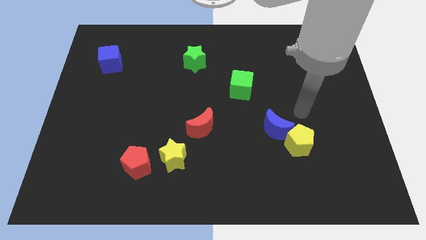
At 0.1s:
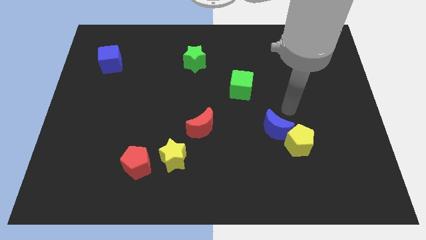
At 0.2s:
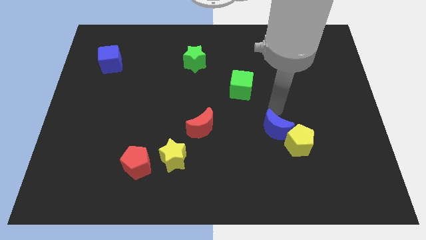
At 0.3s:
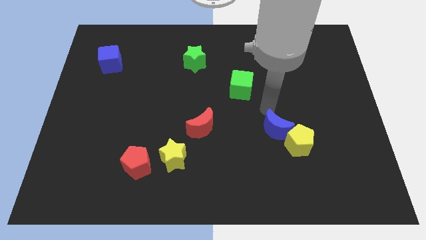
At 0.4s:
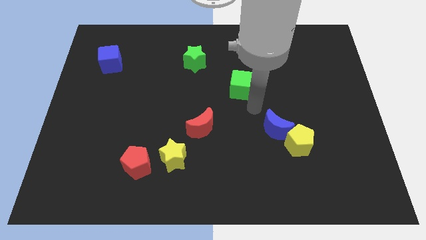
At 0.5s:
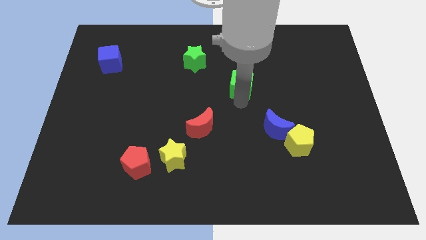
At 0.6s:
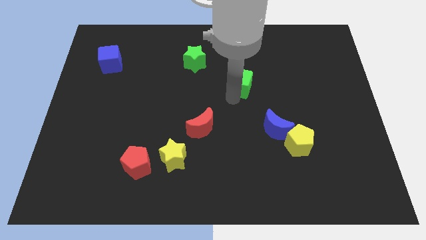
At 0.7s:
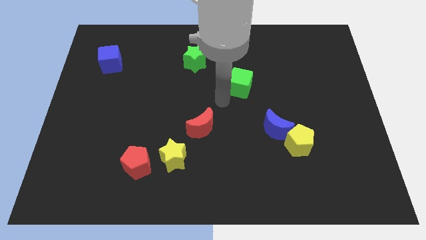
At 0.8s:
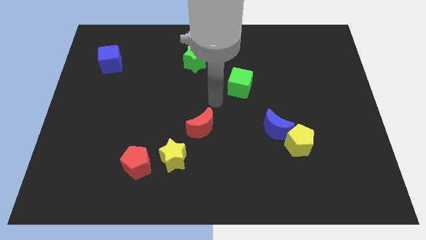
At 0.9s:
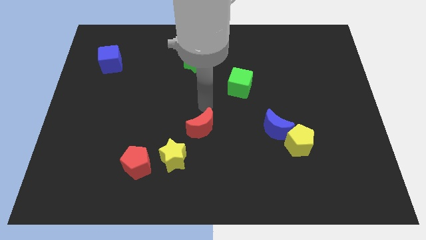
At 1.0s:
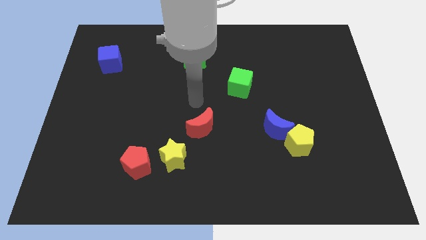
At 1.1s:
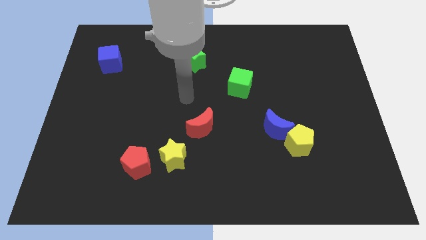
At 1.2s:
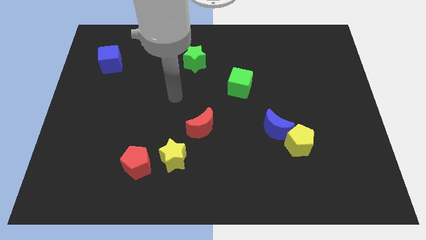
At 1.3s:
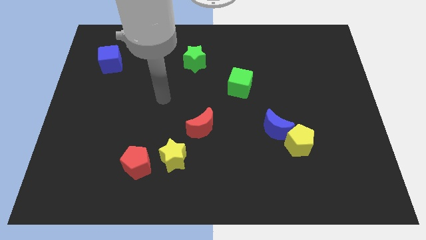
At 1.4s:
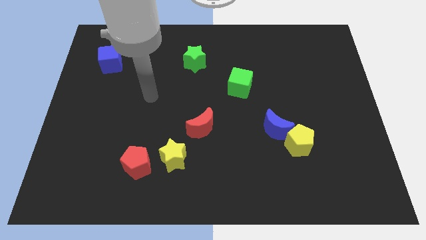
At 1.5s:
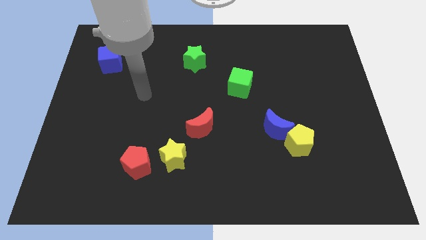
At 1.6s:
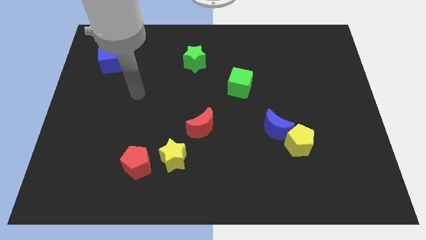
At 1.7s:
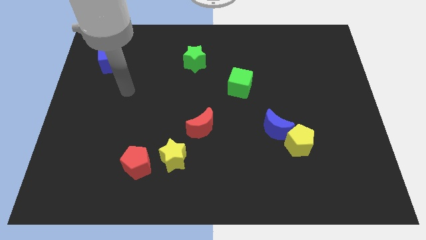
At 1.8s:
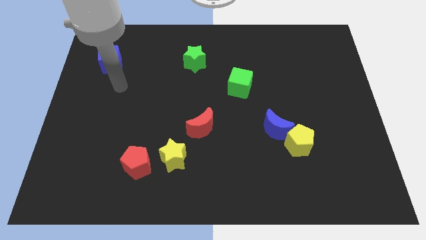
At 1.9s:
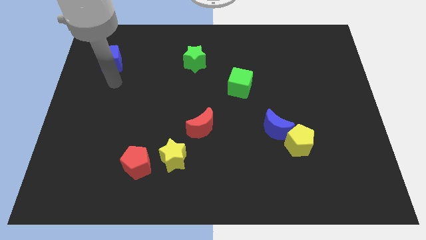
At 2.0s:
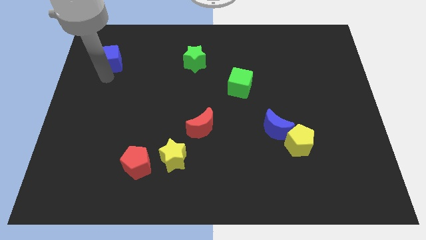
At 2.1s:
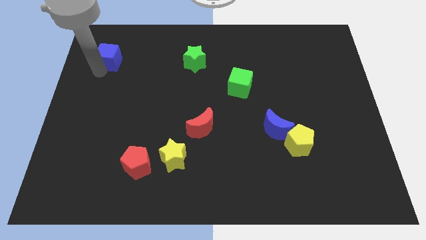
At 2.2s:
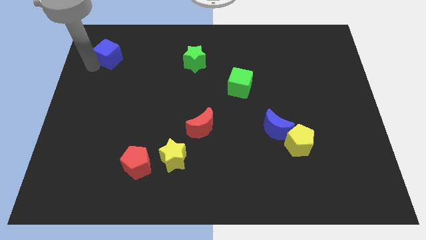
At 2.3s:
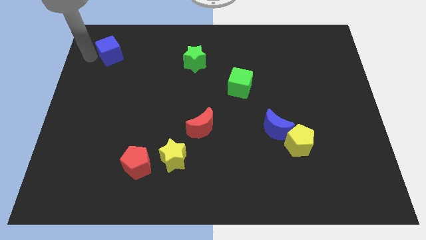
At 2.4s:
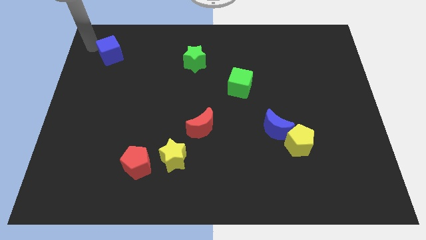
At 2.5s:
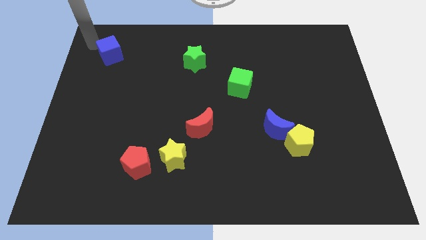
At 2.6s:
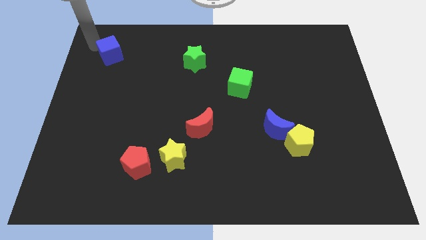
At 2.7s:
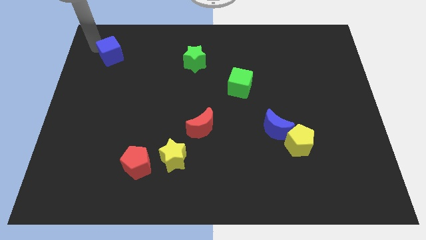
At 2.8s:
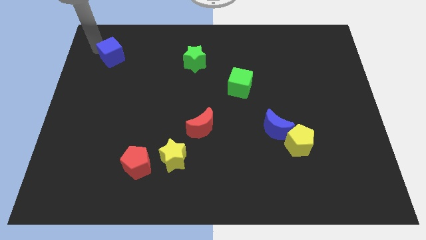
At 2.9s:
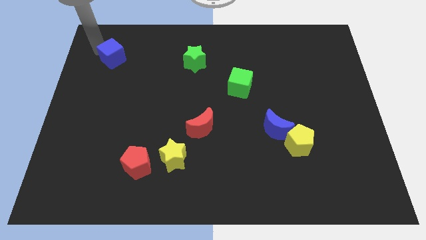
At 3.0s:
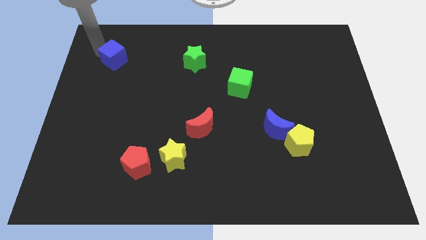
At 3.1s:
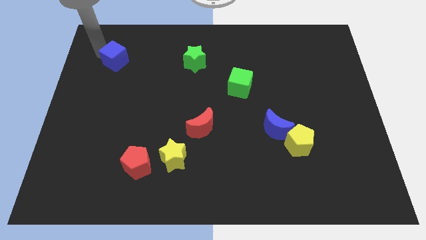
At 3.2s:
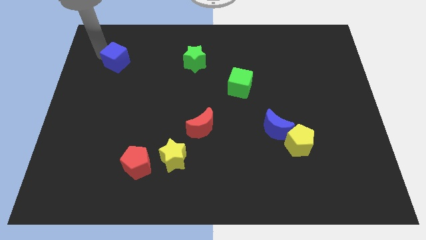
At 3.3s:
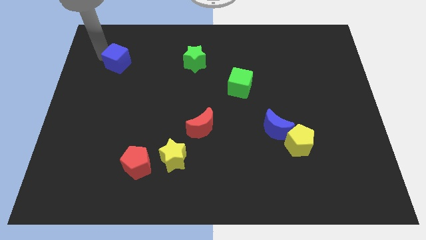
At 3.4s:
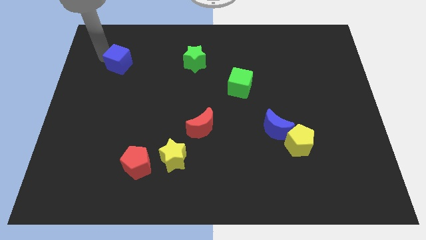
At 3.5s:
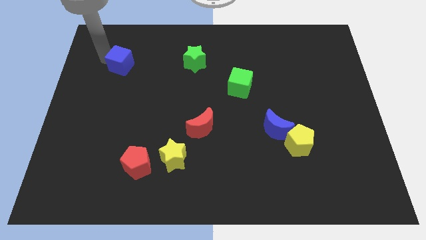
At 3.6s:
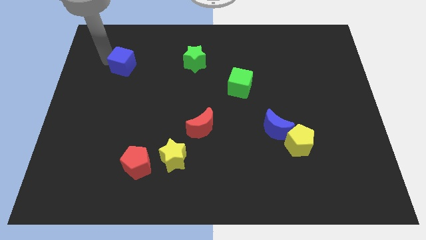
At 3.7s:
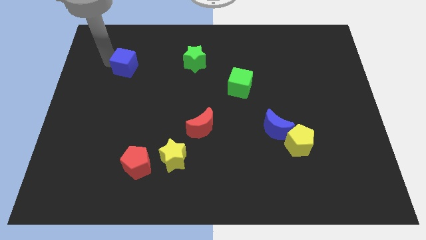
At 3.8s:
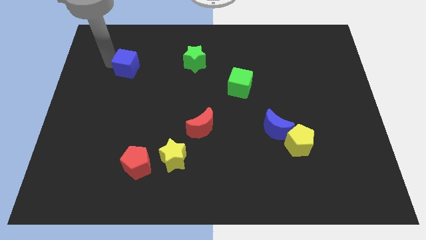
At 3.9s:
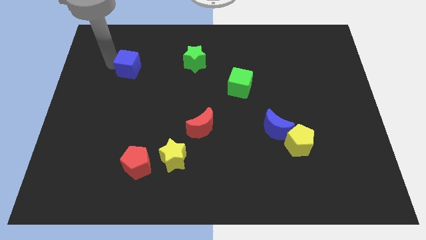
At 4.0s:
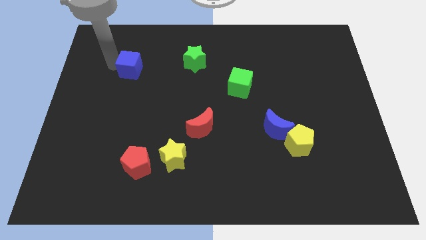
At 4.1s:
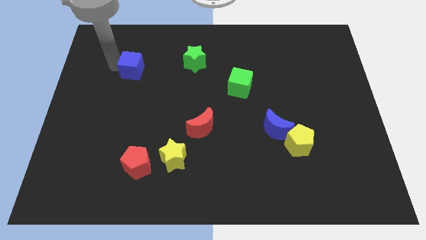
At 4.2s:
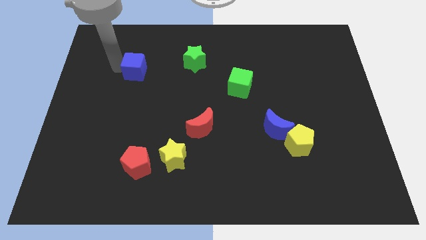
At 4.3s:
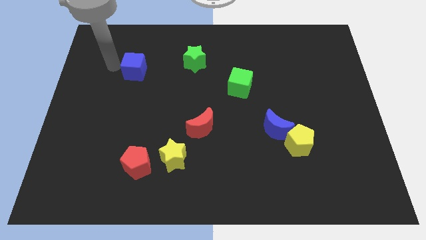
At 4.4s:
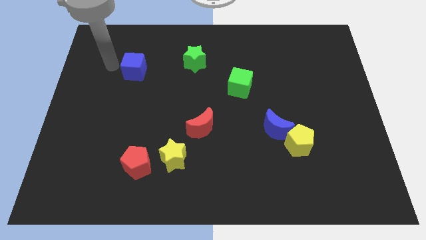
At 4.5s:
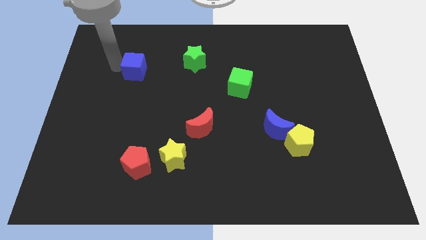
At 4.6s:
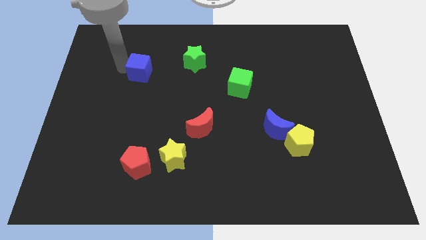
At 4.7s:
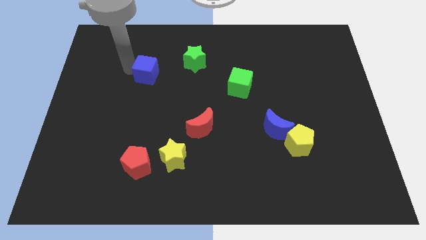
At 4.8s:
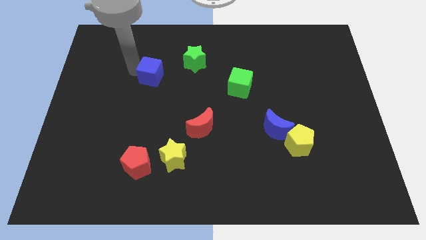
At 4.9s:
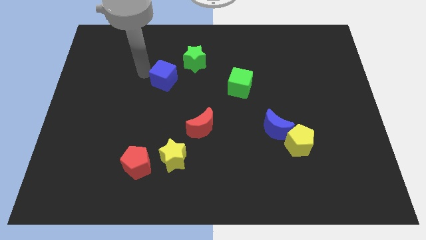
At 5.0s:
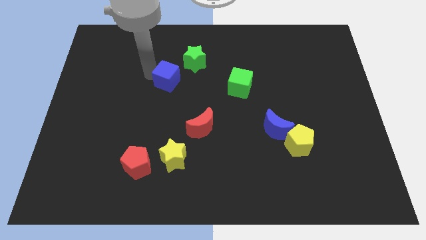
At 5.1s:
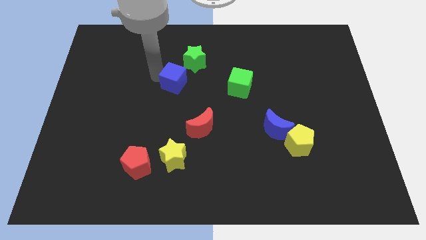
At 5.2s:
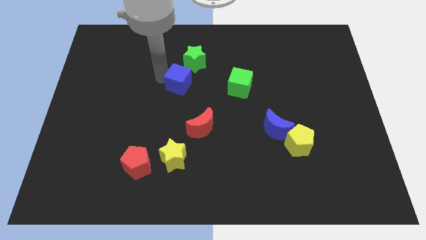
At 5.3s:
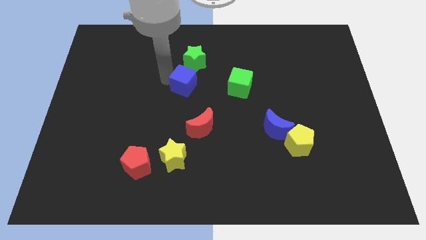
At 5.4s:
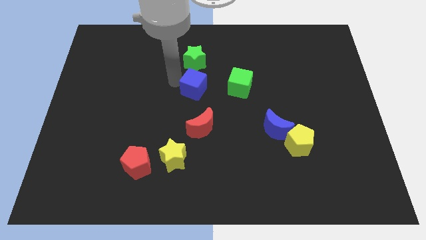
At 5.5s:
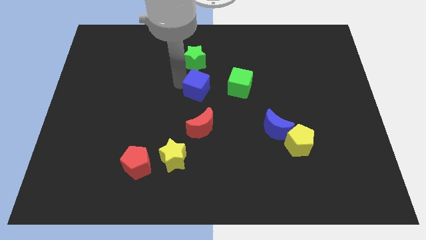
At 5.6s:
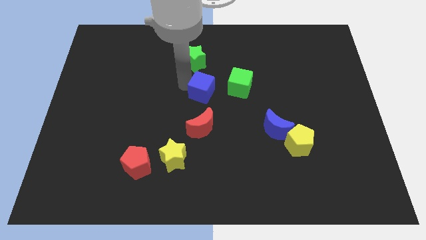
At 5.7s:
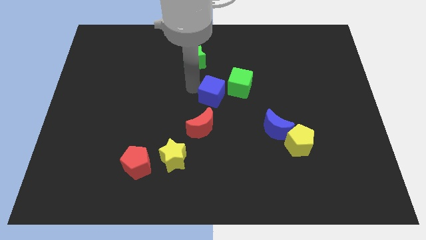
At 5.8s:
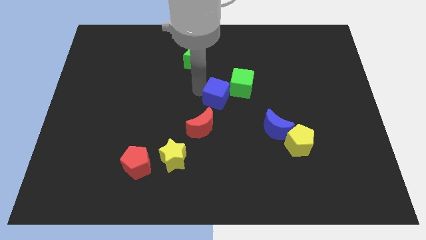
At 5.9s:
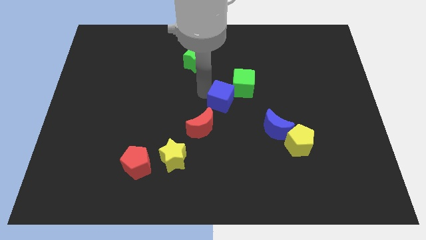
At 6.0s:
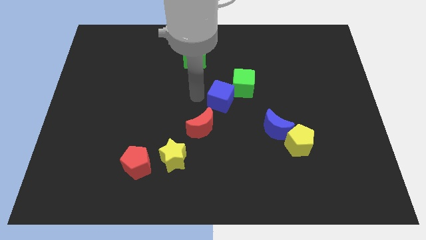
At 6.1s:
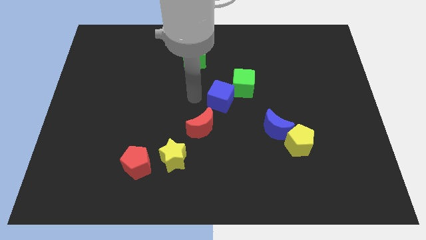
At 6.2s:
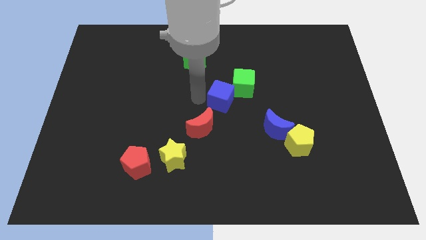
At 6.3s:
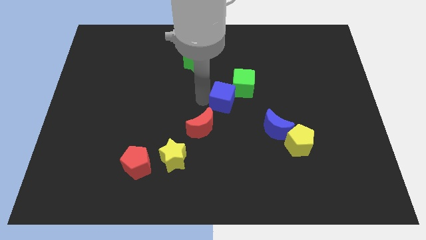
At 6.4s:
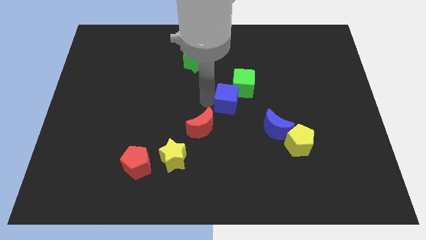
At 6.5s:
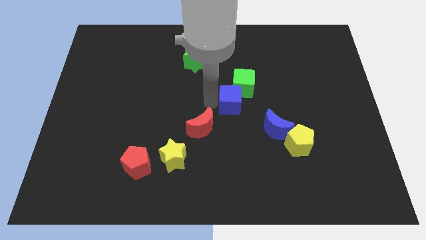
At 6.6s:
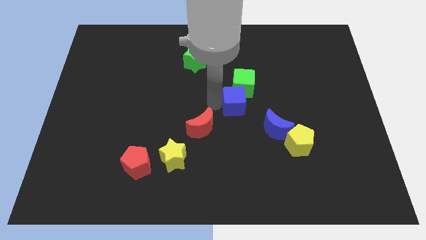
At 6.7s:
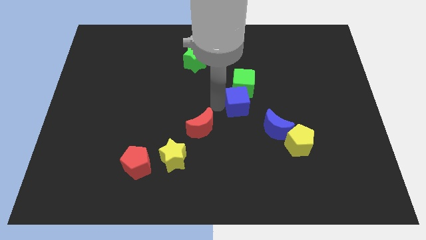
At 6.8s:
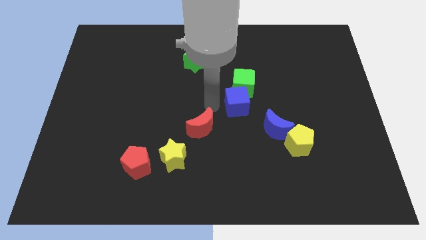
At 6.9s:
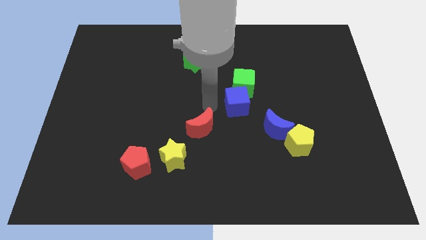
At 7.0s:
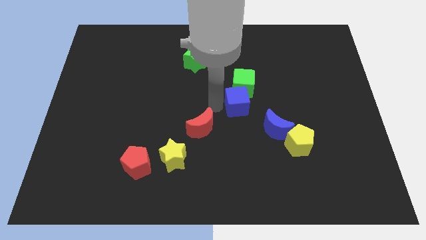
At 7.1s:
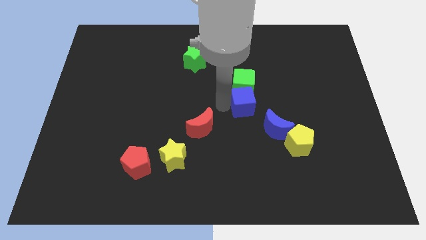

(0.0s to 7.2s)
slide the blue cube to the bottom right side of the green cube
